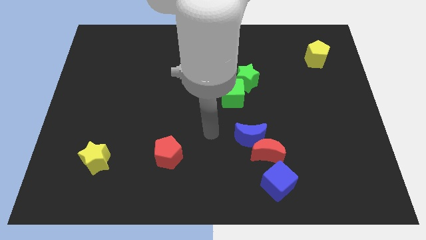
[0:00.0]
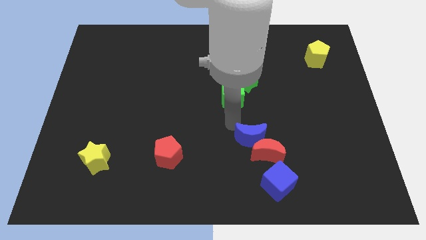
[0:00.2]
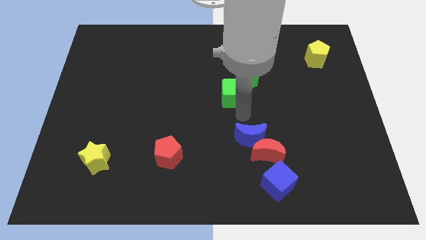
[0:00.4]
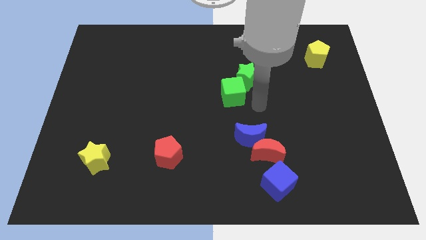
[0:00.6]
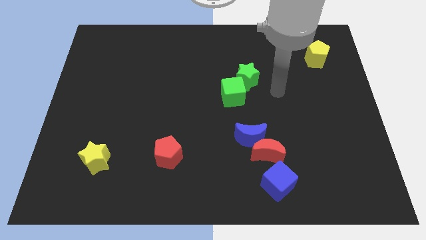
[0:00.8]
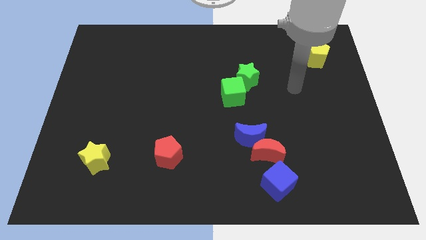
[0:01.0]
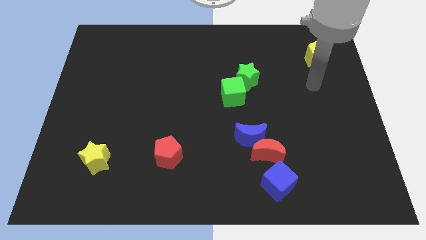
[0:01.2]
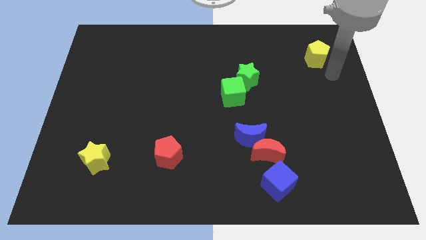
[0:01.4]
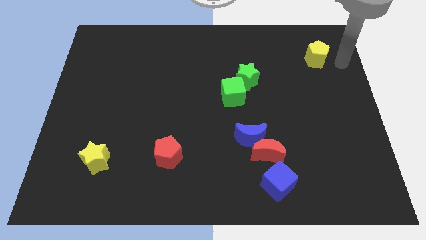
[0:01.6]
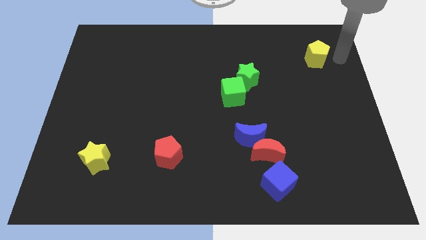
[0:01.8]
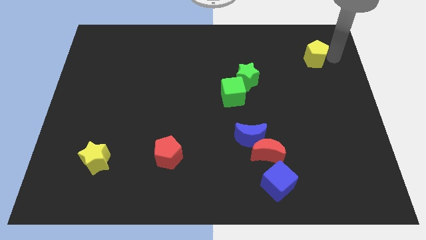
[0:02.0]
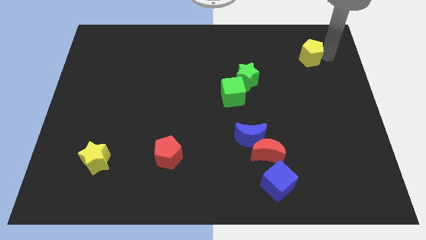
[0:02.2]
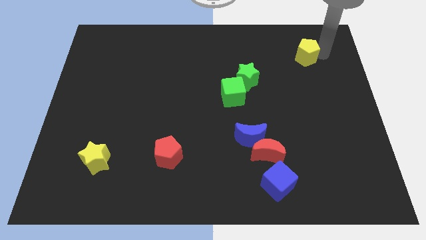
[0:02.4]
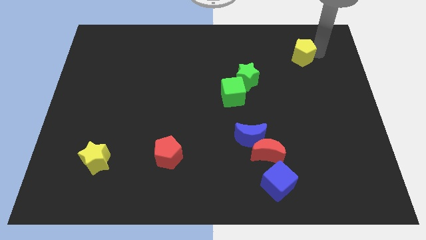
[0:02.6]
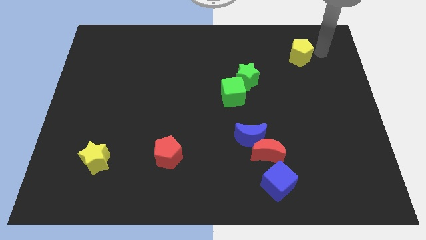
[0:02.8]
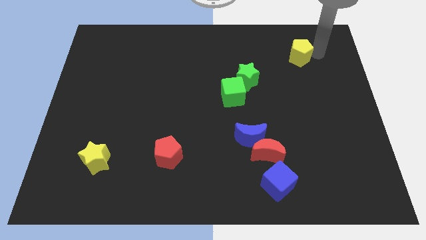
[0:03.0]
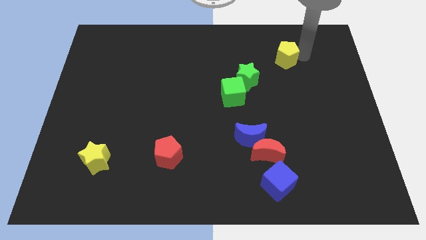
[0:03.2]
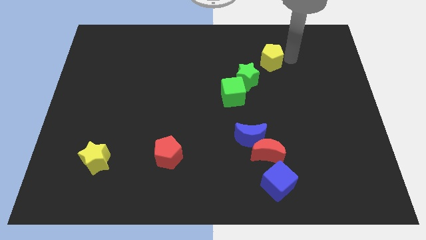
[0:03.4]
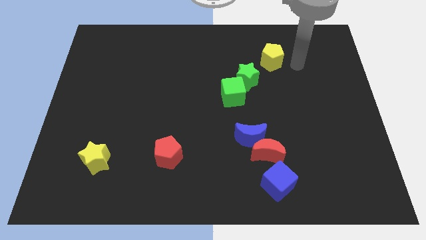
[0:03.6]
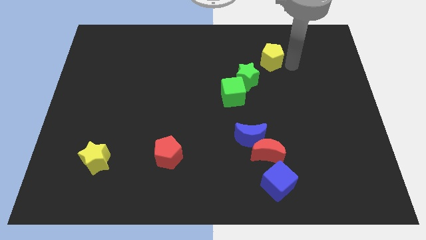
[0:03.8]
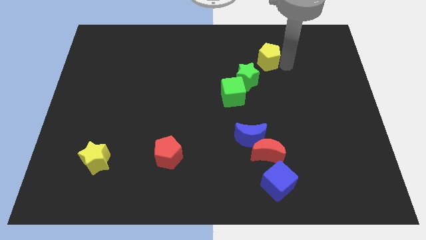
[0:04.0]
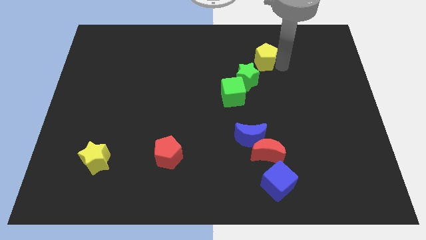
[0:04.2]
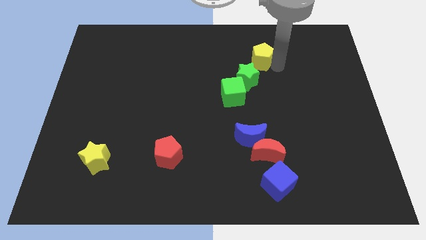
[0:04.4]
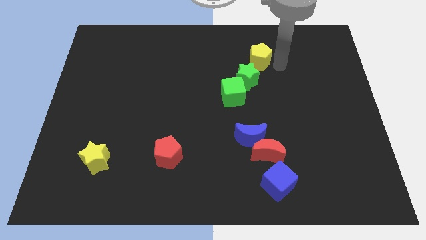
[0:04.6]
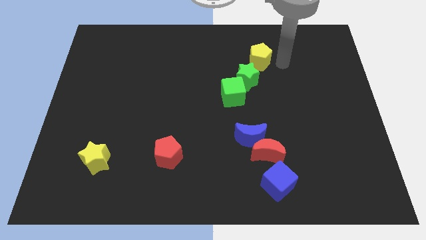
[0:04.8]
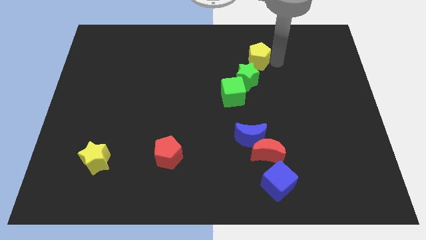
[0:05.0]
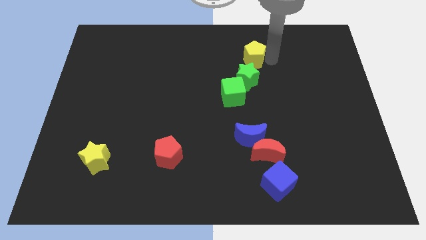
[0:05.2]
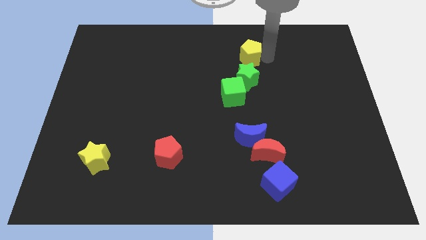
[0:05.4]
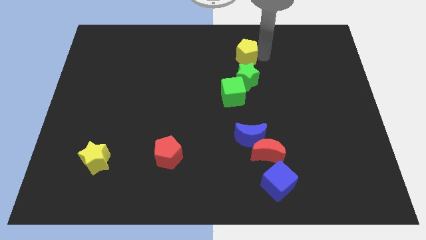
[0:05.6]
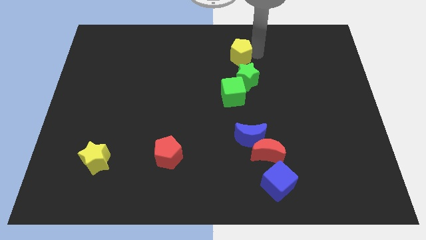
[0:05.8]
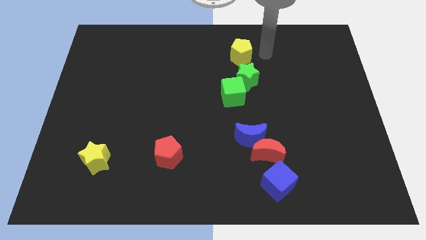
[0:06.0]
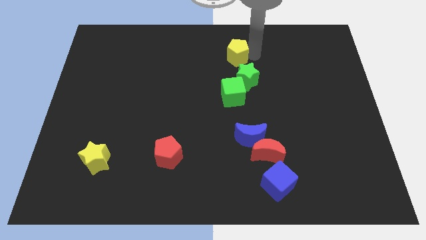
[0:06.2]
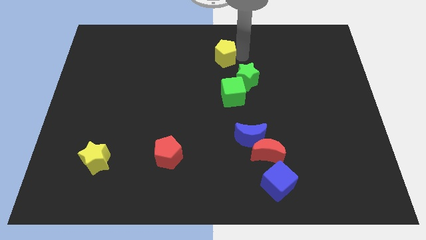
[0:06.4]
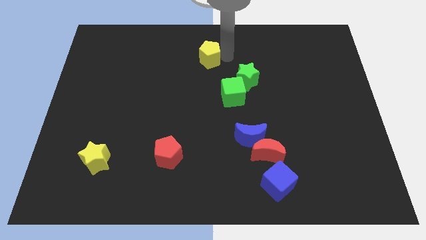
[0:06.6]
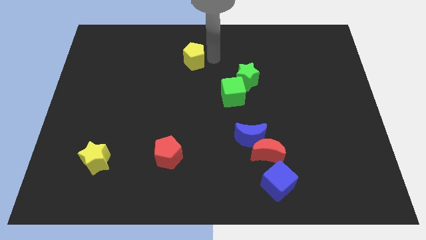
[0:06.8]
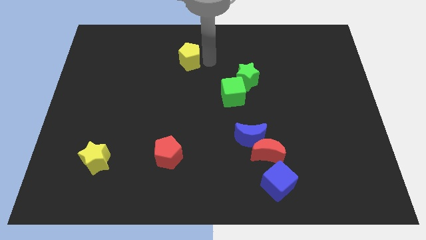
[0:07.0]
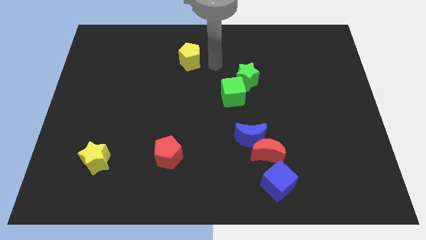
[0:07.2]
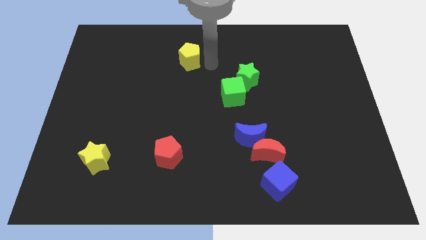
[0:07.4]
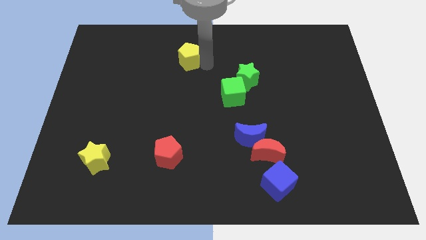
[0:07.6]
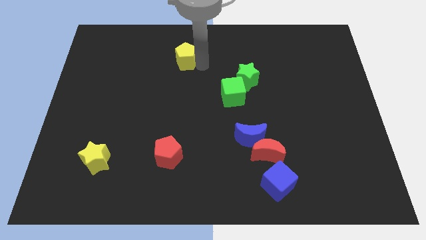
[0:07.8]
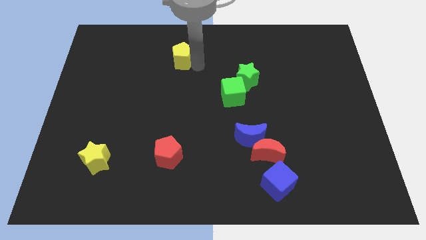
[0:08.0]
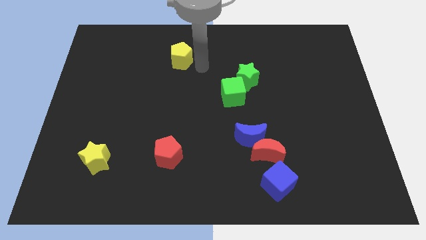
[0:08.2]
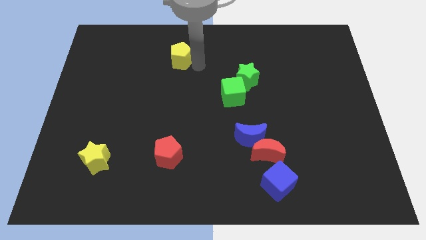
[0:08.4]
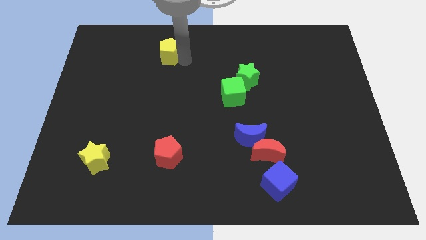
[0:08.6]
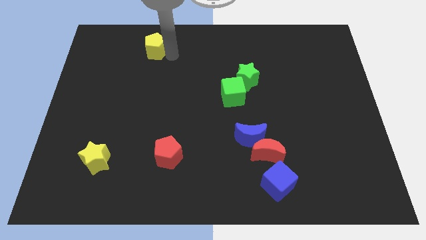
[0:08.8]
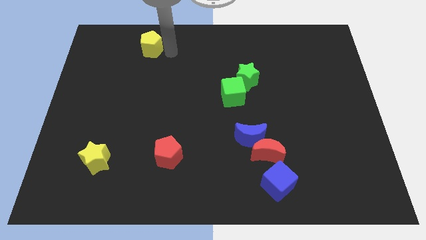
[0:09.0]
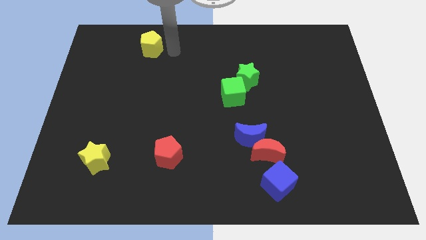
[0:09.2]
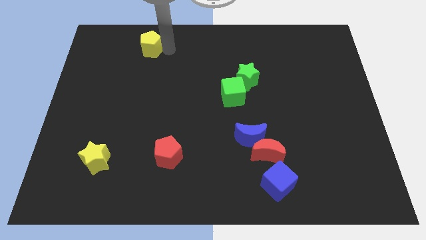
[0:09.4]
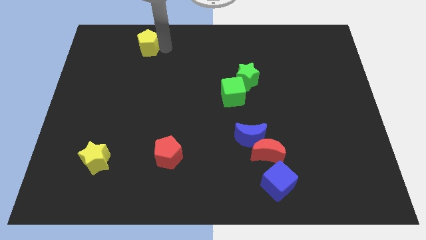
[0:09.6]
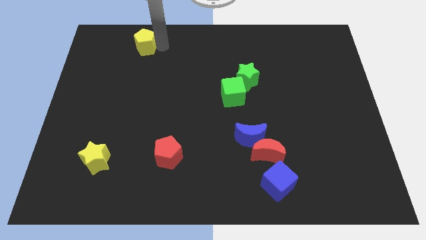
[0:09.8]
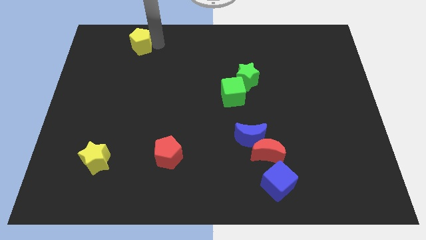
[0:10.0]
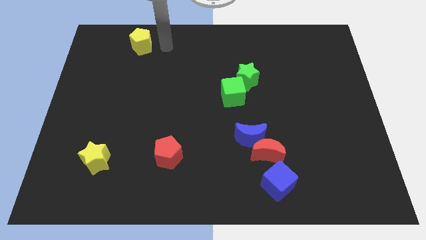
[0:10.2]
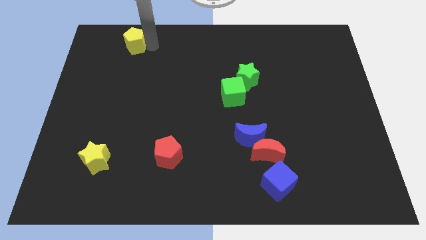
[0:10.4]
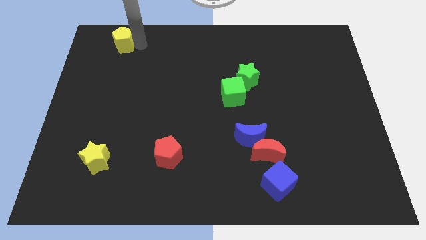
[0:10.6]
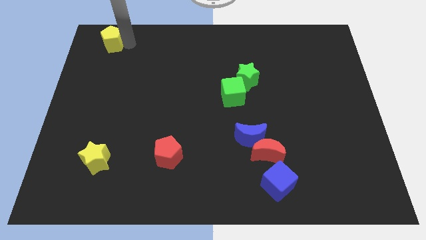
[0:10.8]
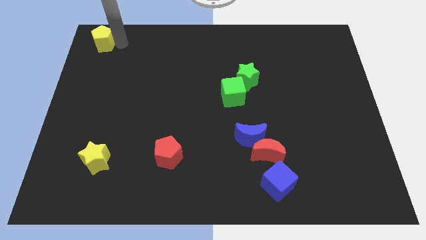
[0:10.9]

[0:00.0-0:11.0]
push the yellow pentagon to the top left corner

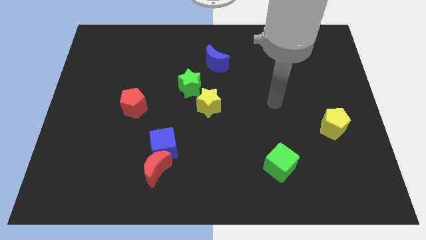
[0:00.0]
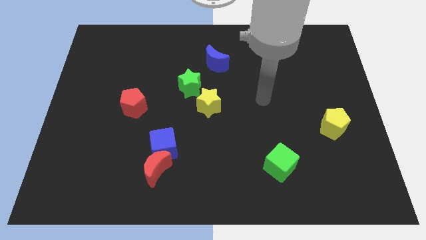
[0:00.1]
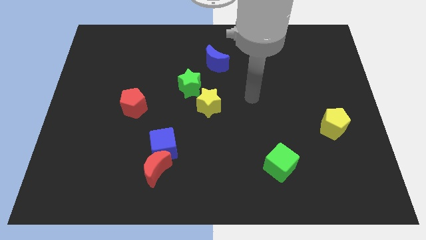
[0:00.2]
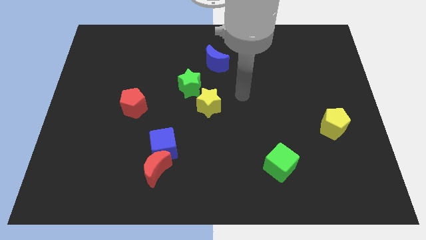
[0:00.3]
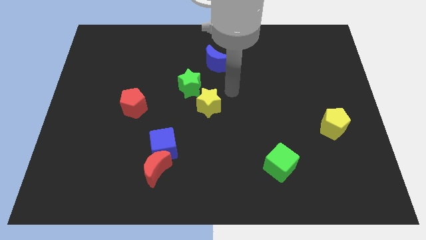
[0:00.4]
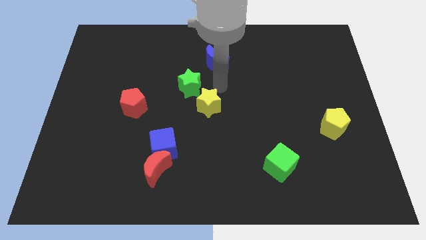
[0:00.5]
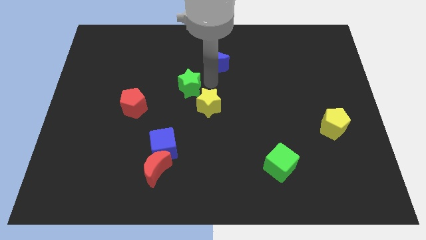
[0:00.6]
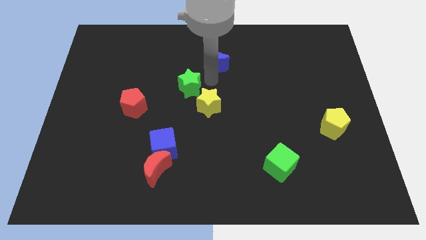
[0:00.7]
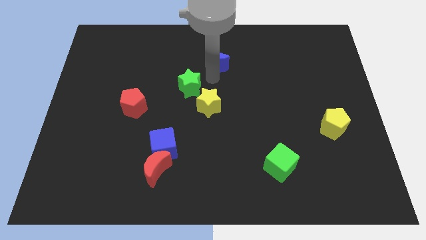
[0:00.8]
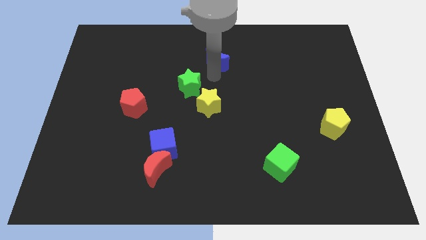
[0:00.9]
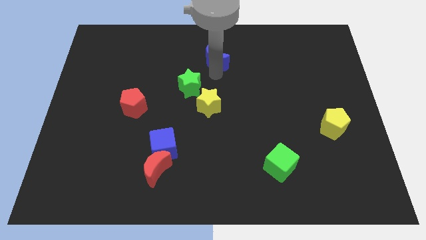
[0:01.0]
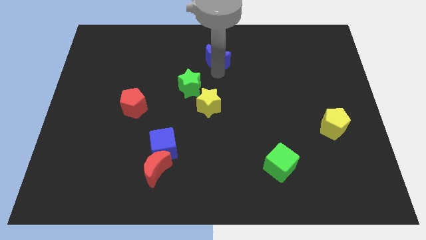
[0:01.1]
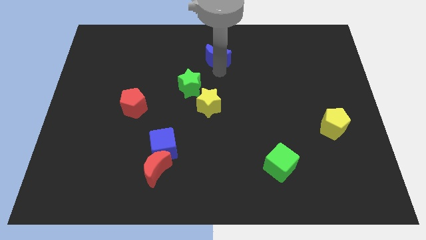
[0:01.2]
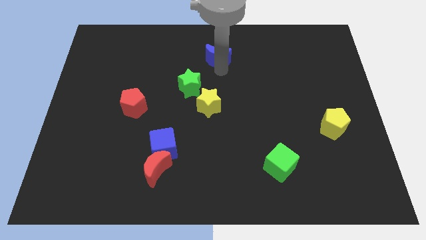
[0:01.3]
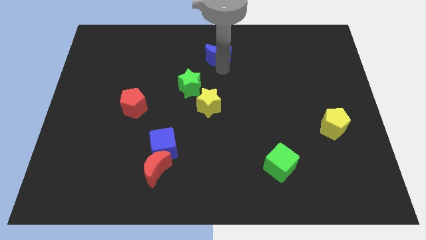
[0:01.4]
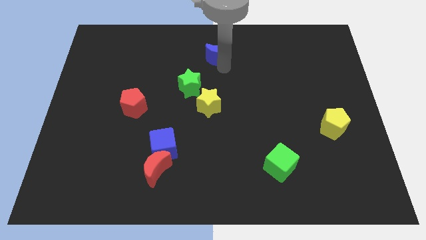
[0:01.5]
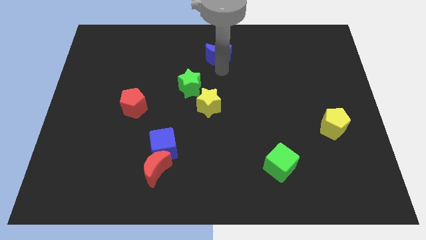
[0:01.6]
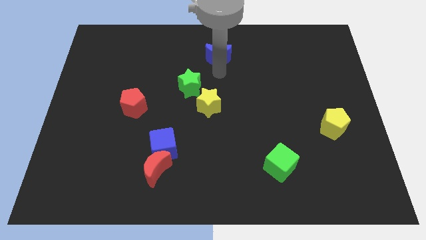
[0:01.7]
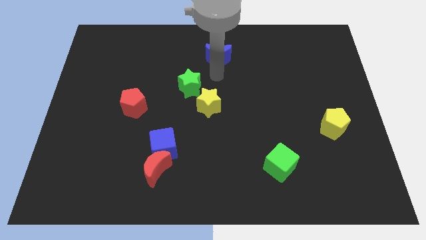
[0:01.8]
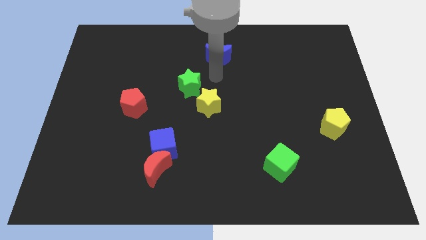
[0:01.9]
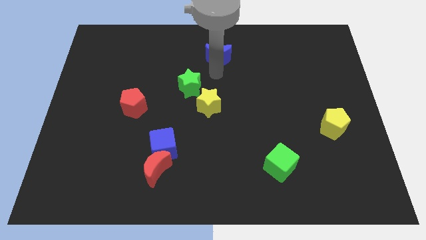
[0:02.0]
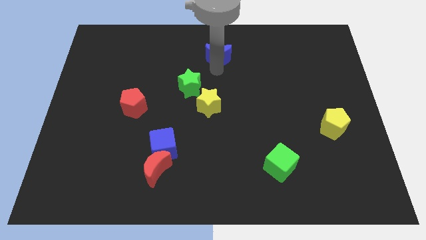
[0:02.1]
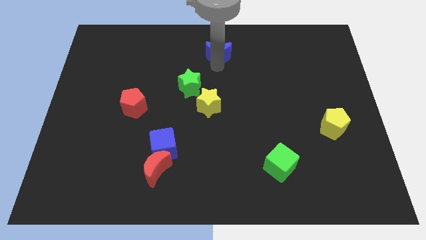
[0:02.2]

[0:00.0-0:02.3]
push the blue moon to the top side
